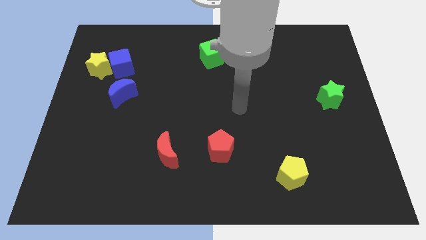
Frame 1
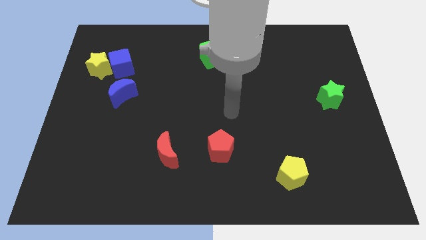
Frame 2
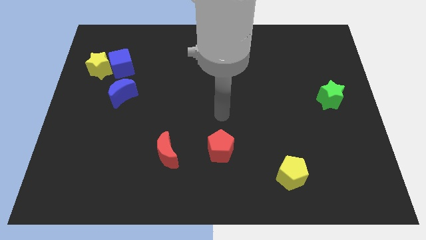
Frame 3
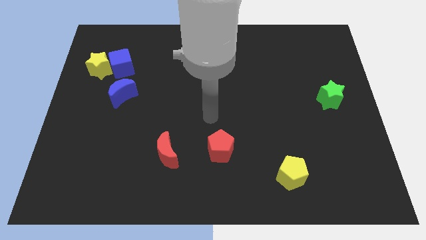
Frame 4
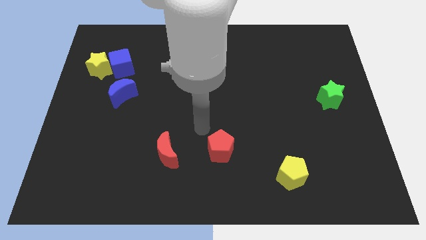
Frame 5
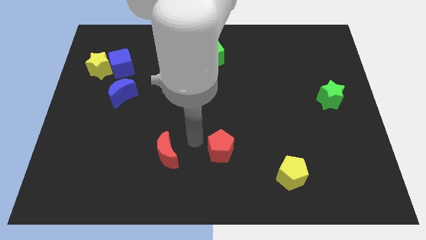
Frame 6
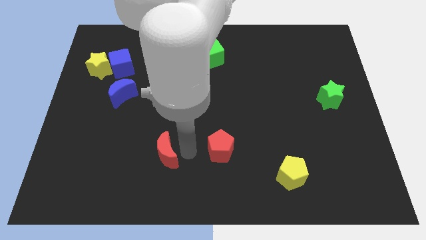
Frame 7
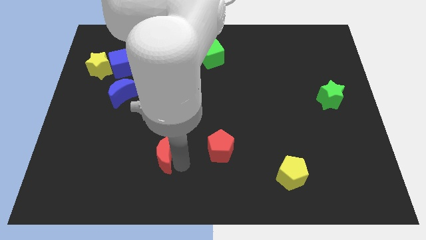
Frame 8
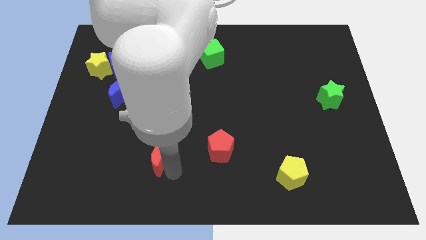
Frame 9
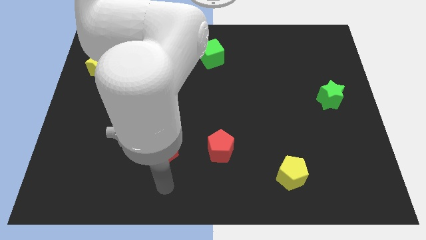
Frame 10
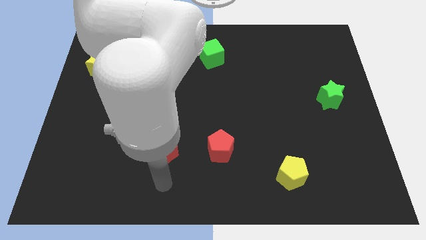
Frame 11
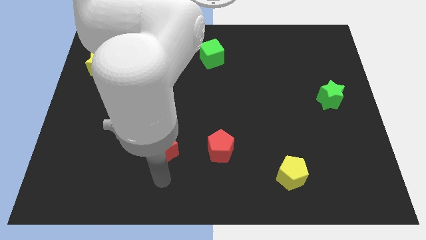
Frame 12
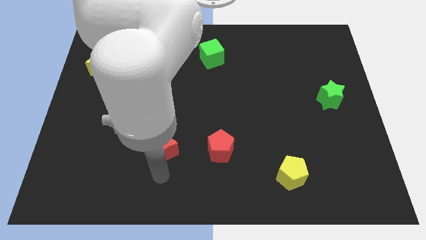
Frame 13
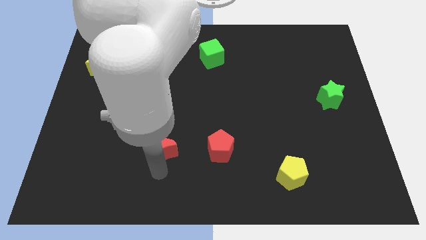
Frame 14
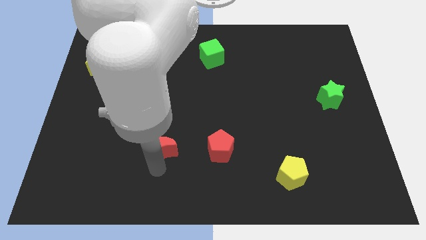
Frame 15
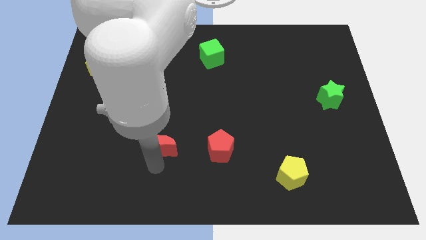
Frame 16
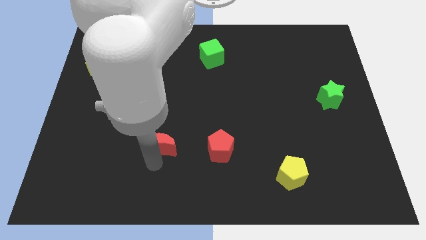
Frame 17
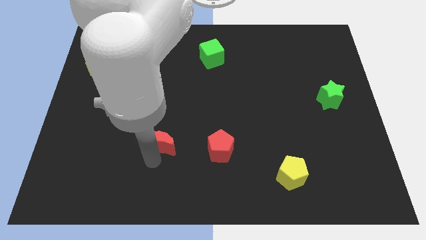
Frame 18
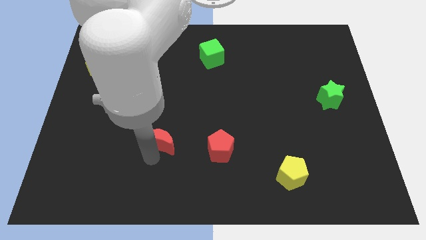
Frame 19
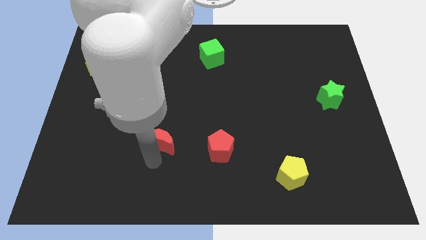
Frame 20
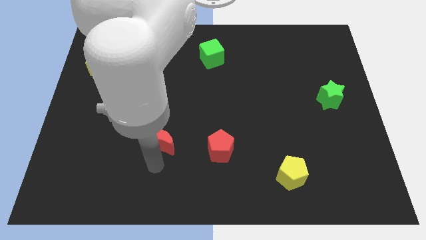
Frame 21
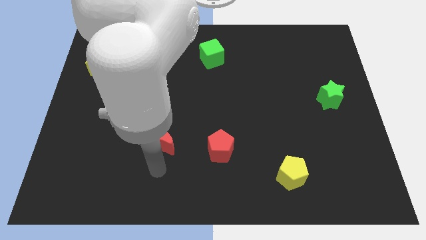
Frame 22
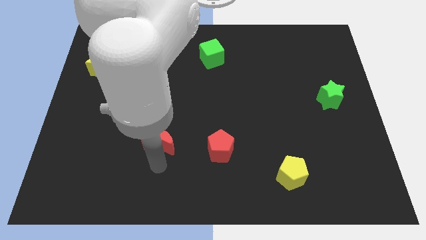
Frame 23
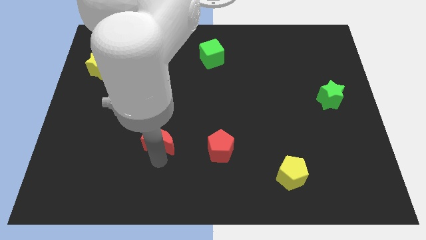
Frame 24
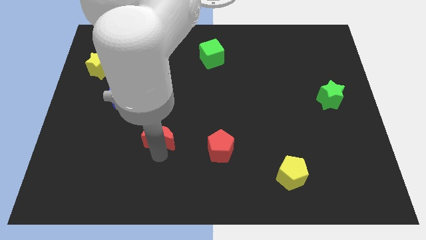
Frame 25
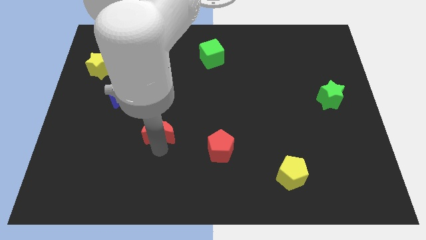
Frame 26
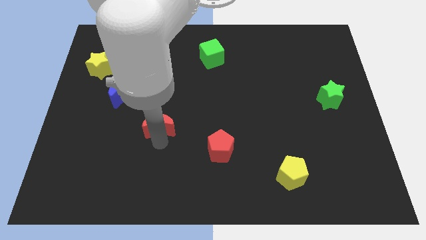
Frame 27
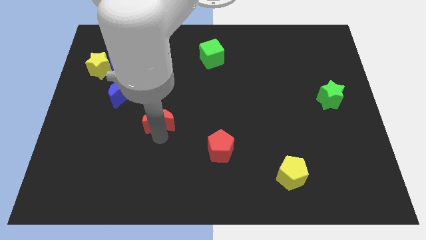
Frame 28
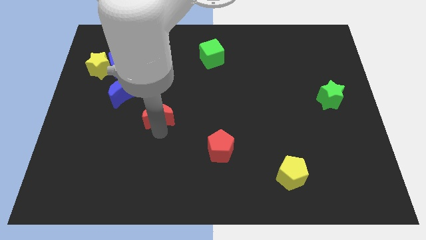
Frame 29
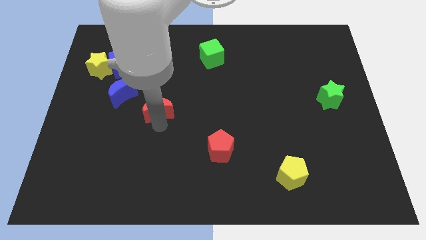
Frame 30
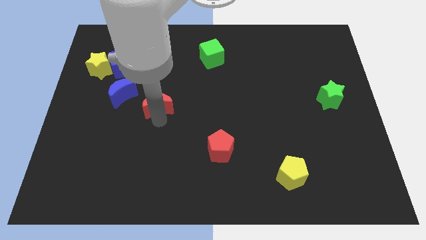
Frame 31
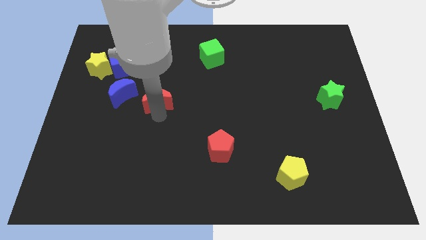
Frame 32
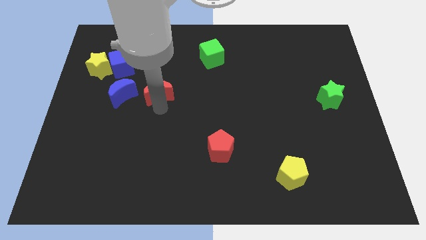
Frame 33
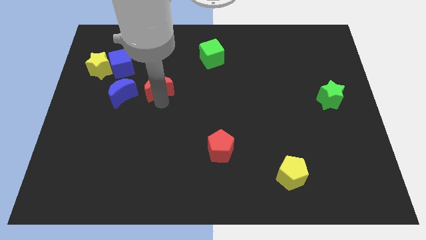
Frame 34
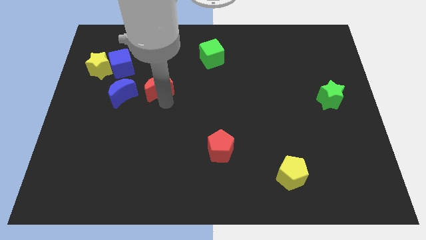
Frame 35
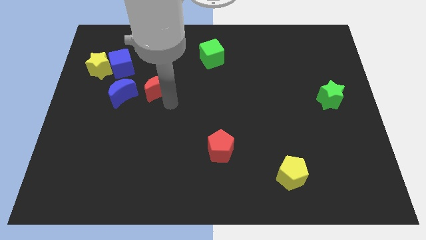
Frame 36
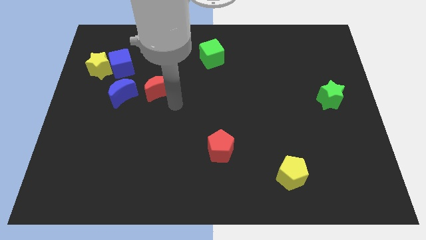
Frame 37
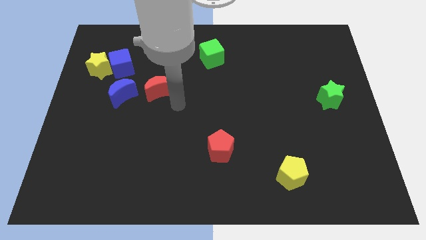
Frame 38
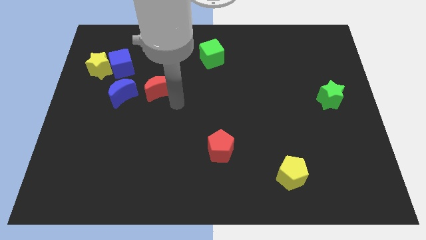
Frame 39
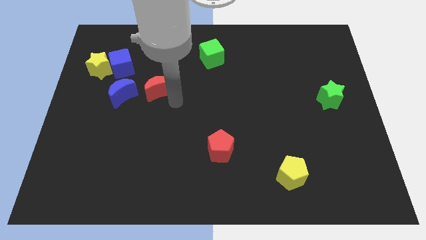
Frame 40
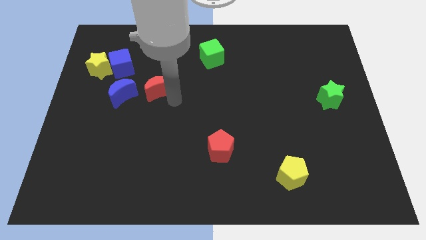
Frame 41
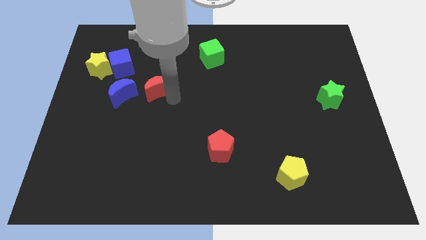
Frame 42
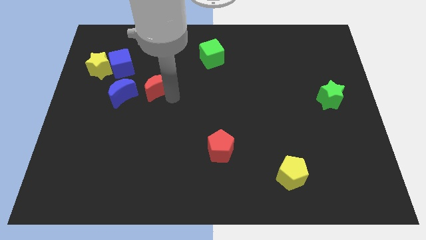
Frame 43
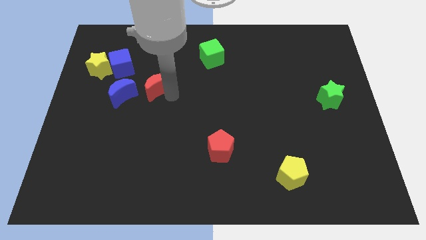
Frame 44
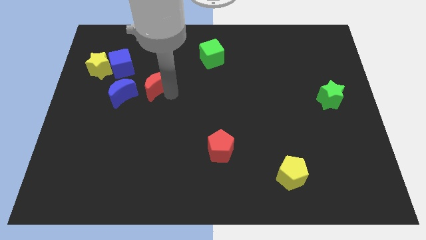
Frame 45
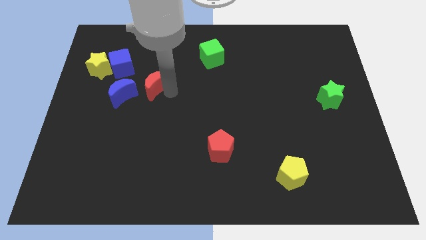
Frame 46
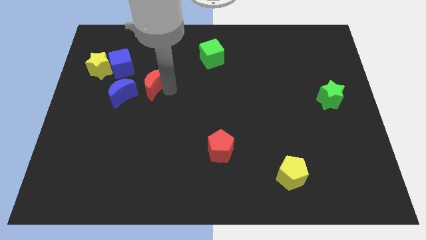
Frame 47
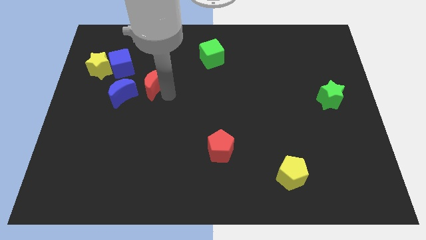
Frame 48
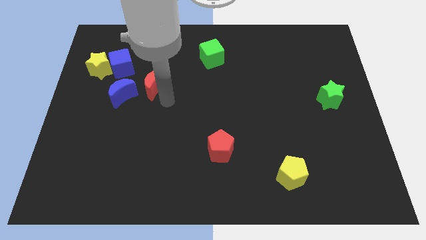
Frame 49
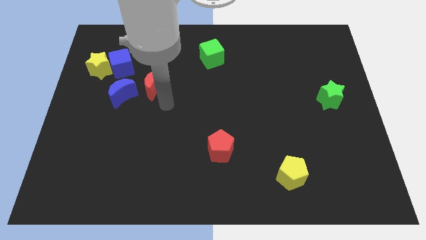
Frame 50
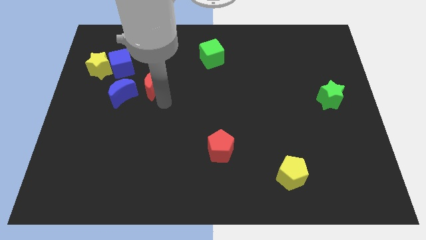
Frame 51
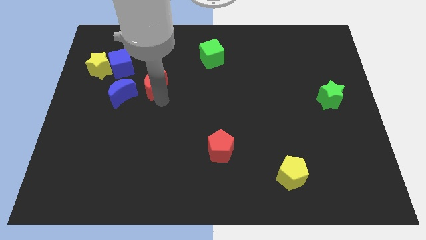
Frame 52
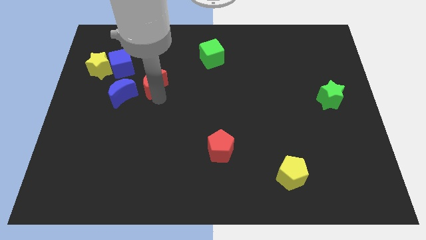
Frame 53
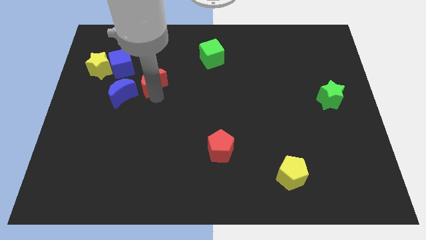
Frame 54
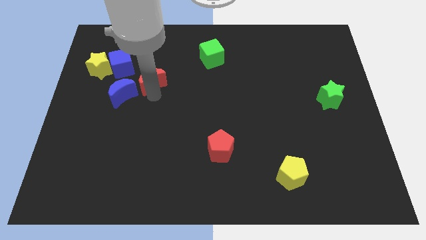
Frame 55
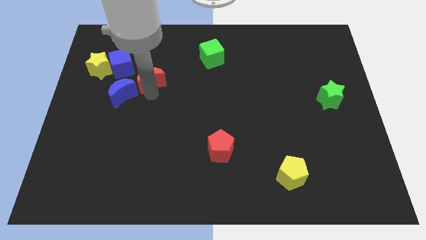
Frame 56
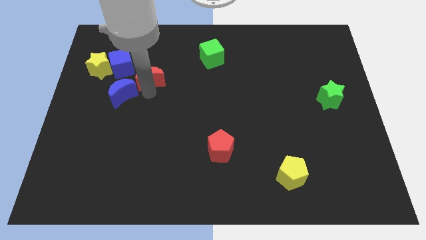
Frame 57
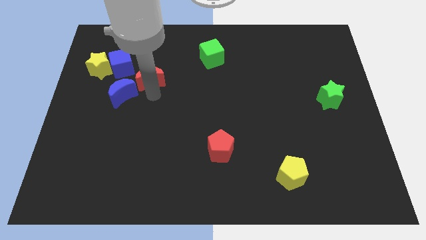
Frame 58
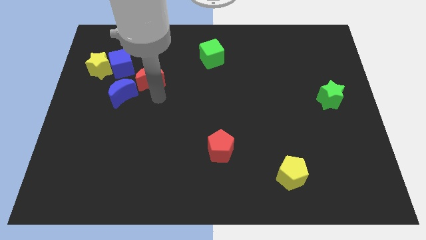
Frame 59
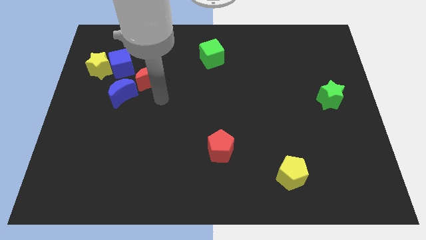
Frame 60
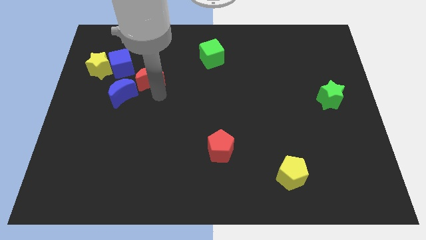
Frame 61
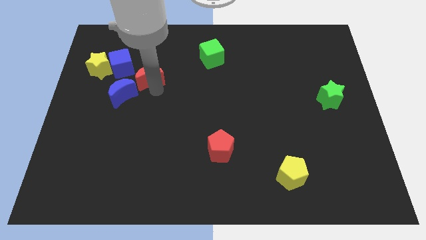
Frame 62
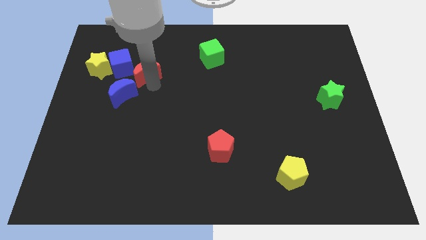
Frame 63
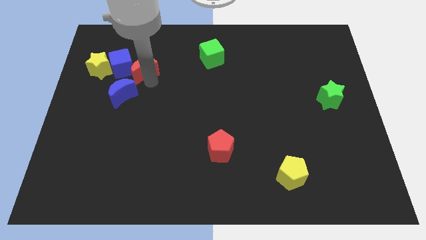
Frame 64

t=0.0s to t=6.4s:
put the red moon above the blue moon

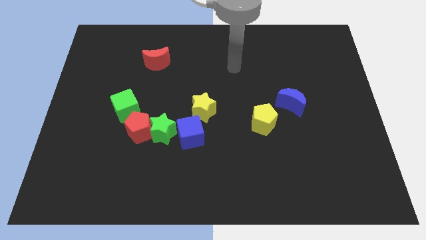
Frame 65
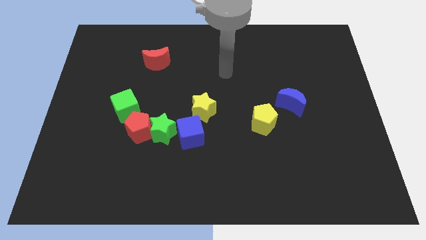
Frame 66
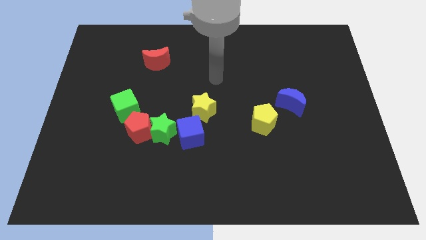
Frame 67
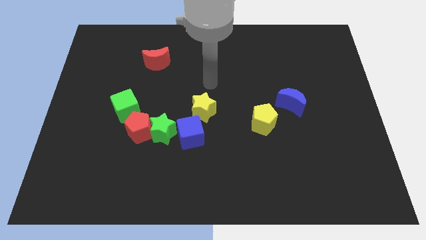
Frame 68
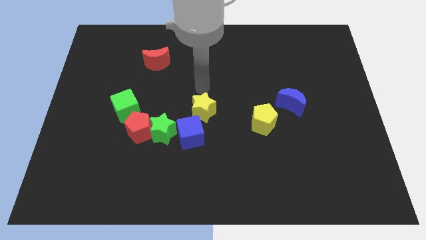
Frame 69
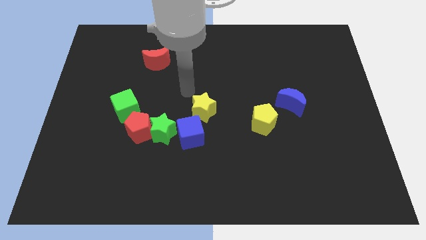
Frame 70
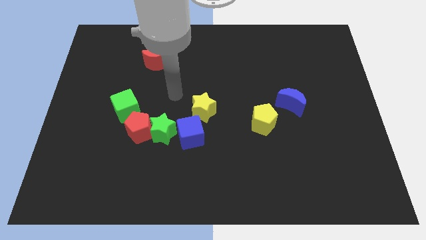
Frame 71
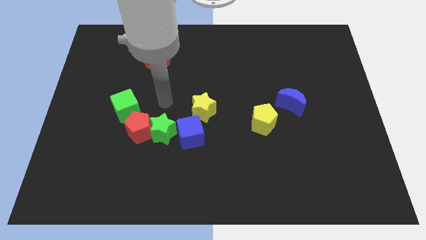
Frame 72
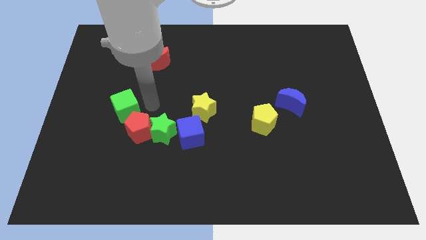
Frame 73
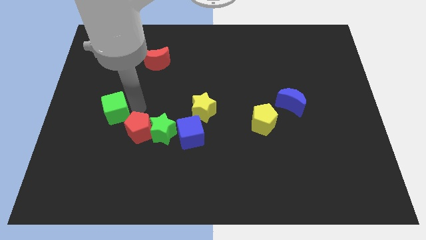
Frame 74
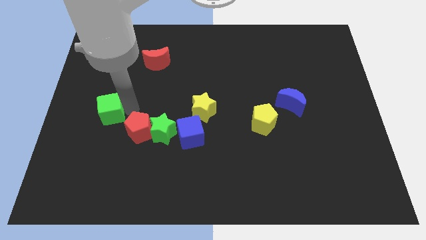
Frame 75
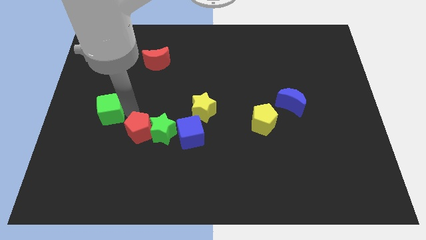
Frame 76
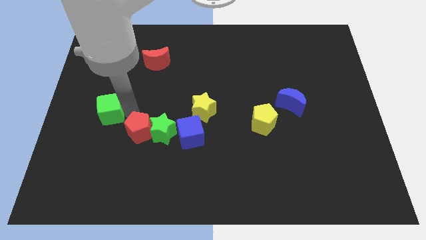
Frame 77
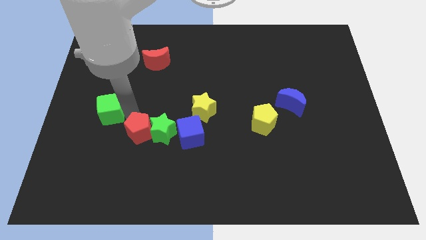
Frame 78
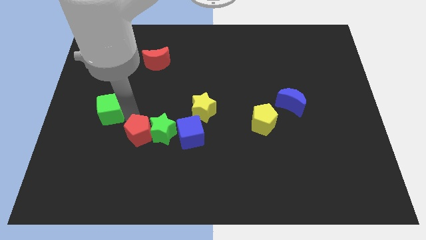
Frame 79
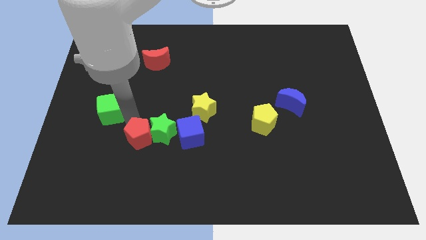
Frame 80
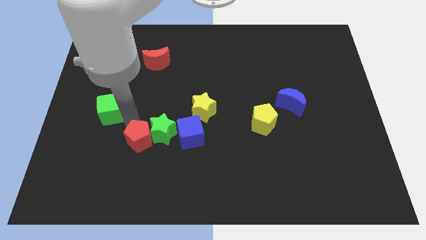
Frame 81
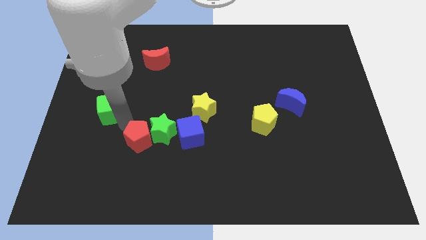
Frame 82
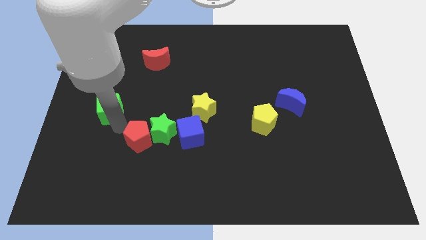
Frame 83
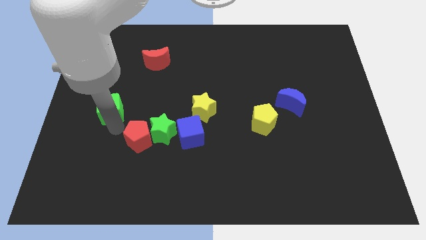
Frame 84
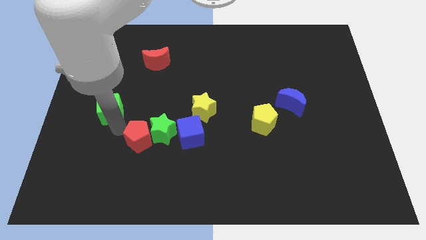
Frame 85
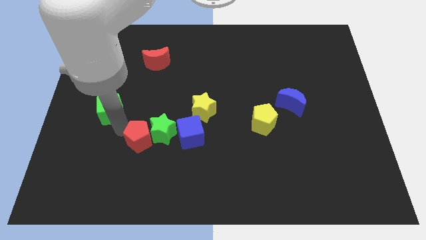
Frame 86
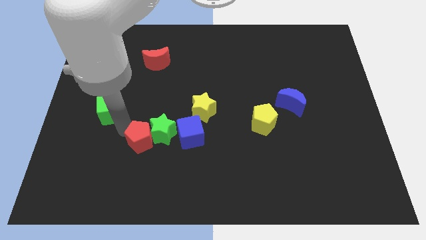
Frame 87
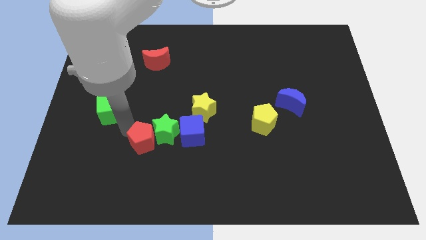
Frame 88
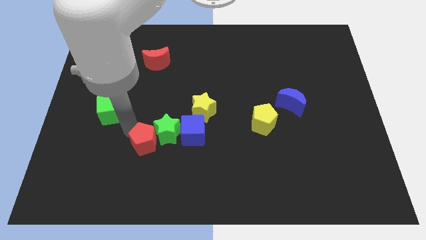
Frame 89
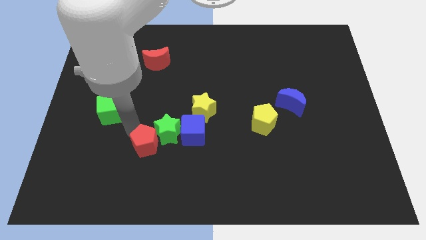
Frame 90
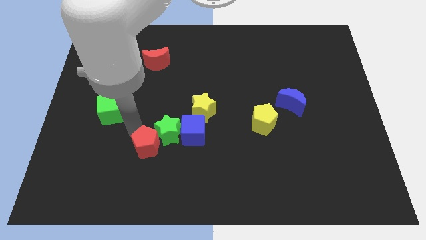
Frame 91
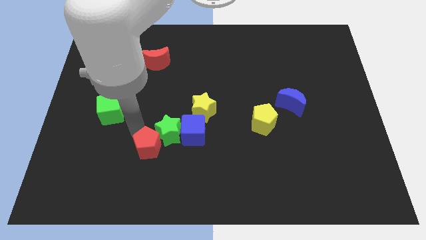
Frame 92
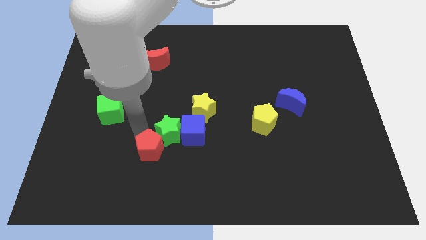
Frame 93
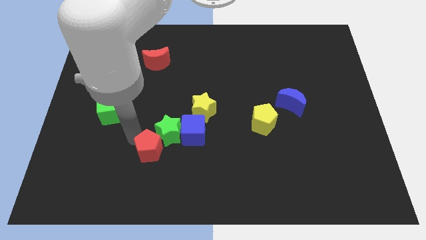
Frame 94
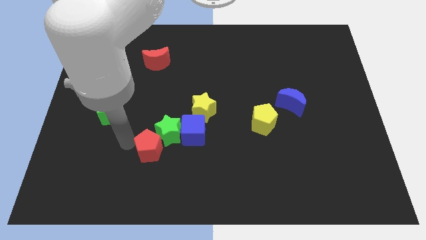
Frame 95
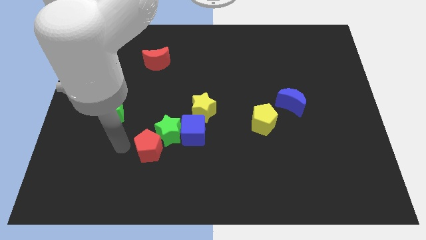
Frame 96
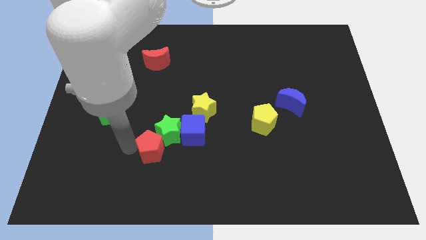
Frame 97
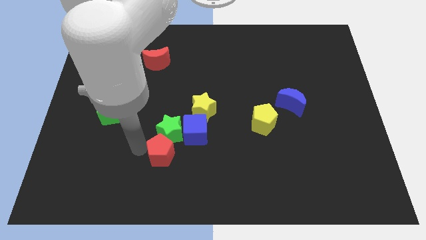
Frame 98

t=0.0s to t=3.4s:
move the red pentagon diagonally down and to the right of the green star
